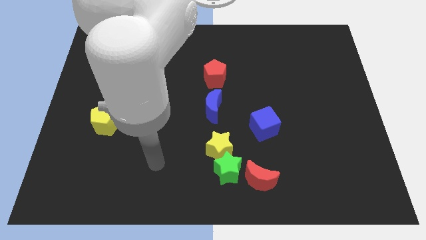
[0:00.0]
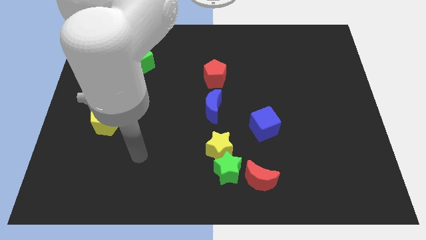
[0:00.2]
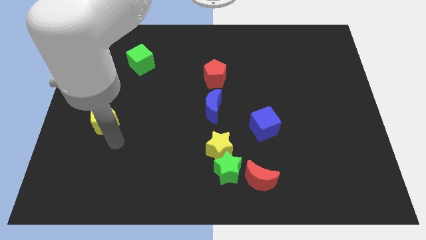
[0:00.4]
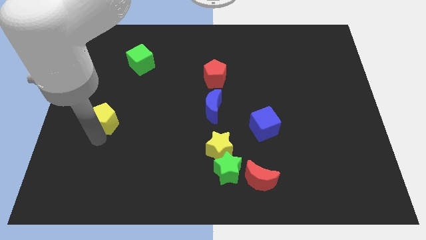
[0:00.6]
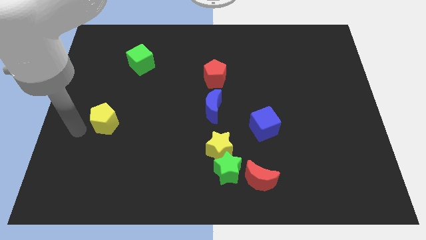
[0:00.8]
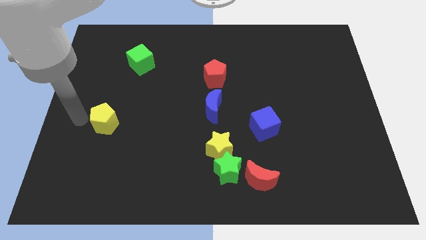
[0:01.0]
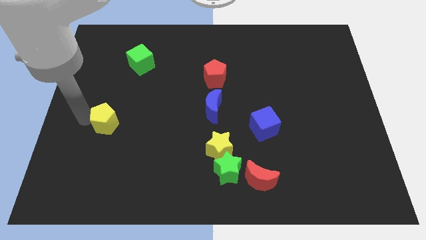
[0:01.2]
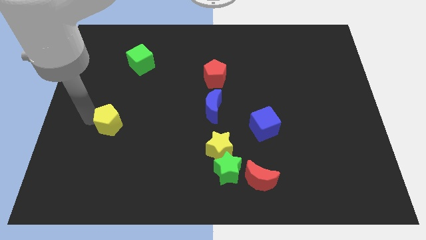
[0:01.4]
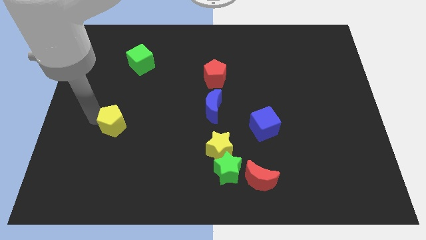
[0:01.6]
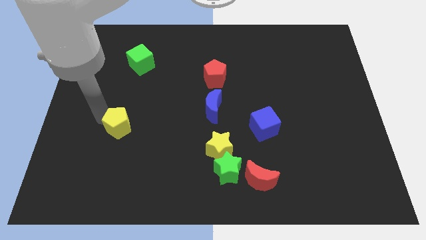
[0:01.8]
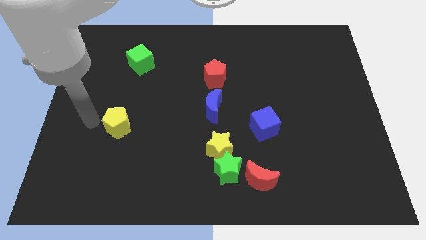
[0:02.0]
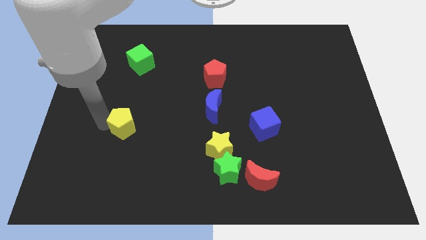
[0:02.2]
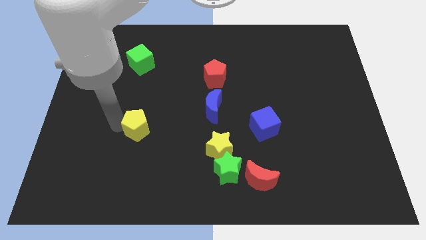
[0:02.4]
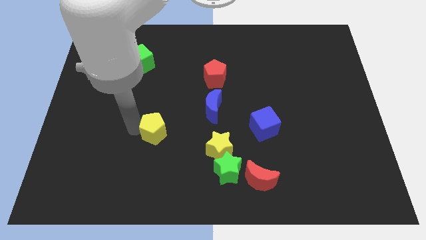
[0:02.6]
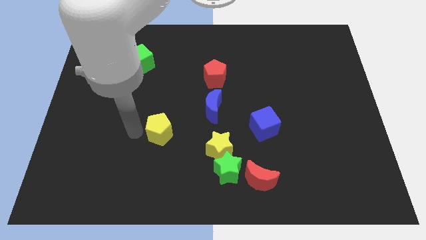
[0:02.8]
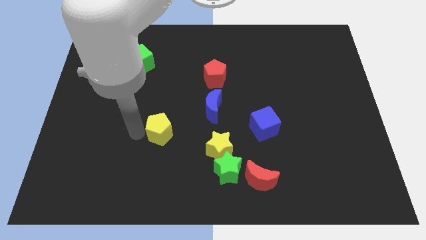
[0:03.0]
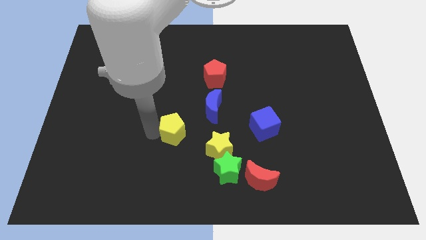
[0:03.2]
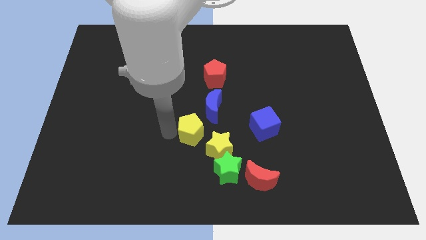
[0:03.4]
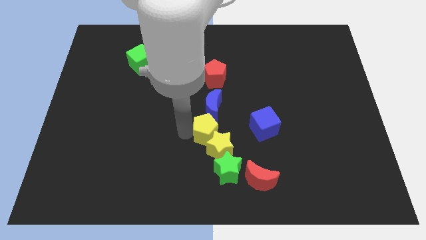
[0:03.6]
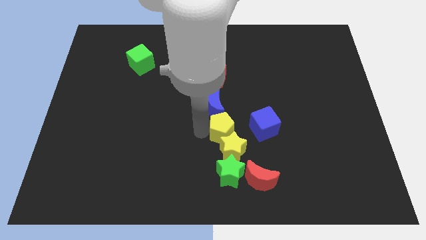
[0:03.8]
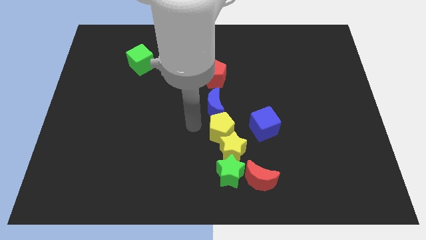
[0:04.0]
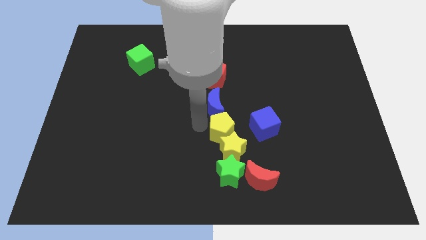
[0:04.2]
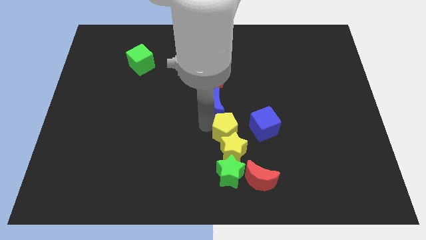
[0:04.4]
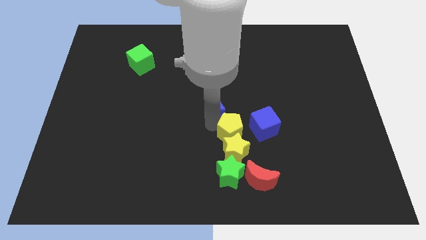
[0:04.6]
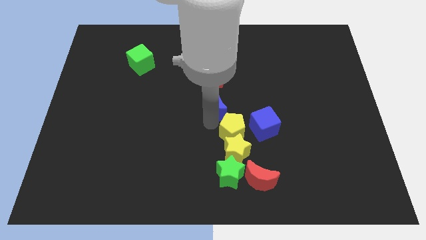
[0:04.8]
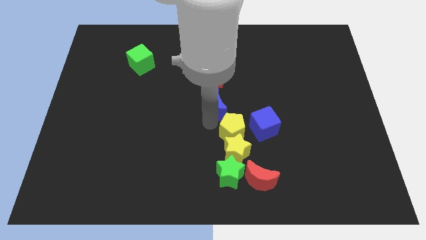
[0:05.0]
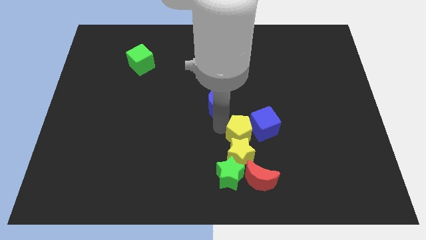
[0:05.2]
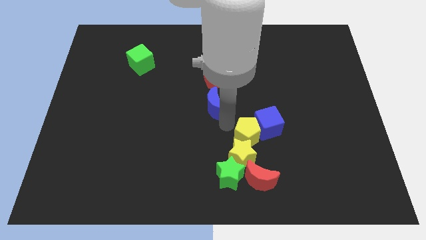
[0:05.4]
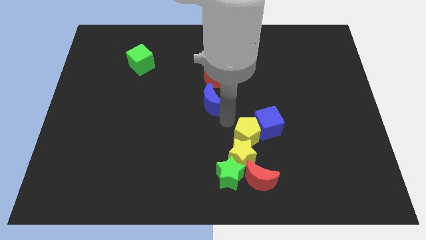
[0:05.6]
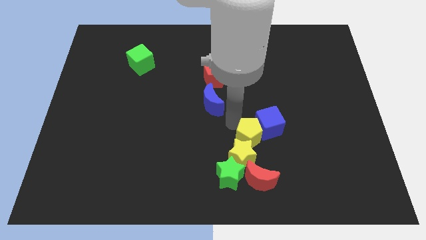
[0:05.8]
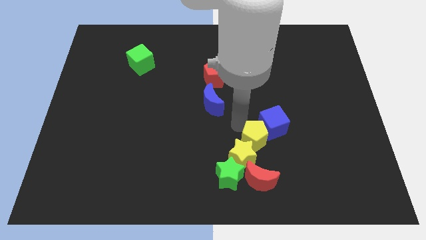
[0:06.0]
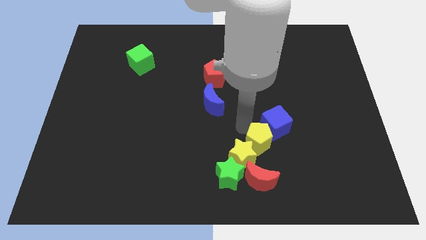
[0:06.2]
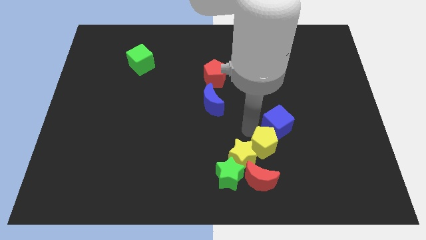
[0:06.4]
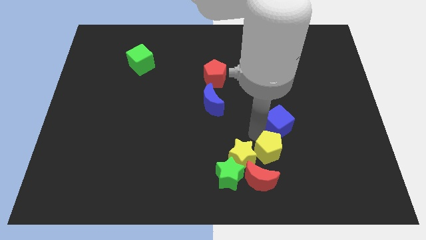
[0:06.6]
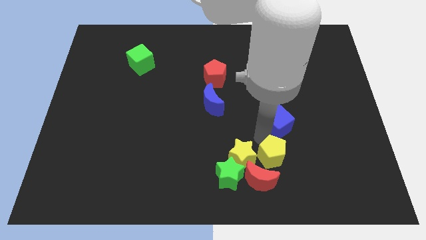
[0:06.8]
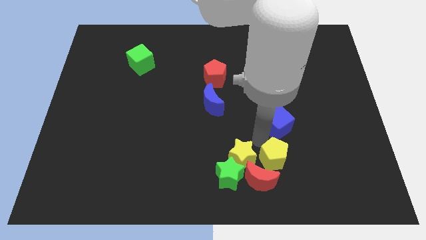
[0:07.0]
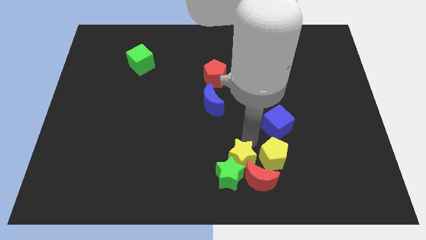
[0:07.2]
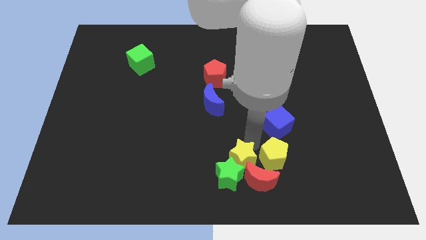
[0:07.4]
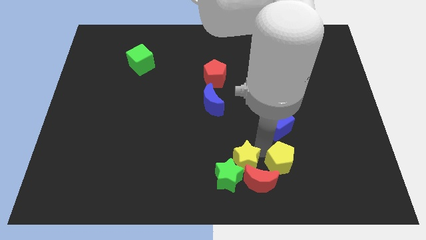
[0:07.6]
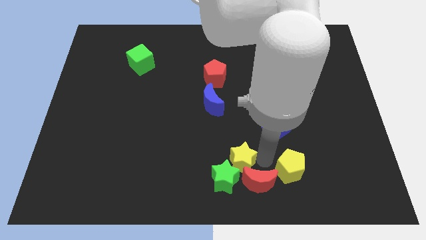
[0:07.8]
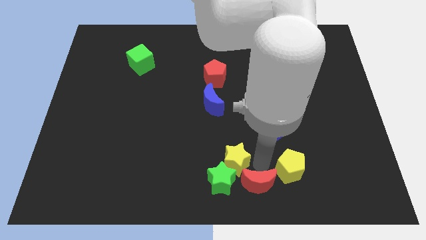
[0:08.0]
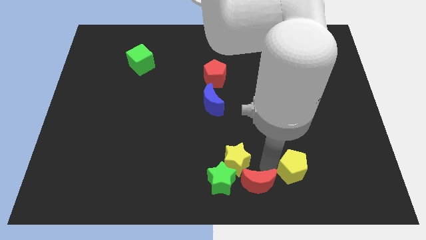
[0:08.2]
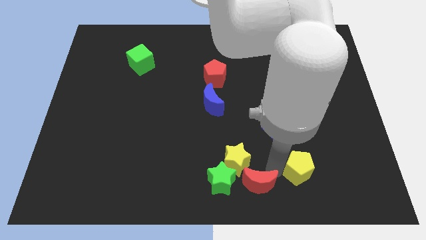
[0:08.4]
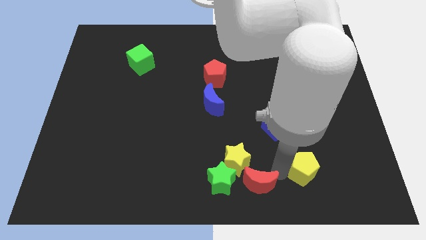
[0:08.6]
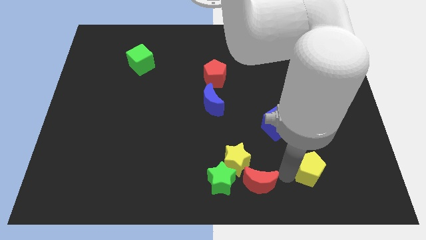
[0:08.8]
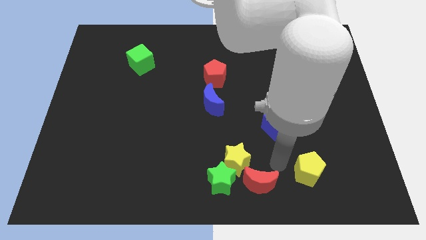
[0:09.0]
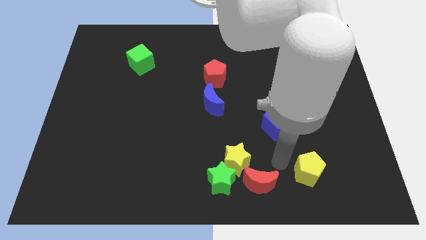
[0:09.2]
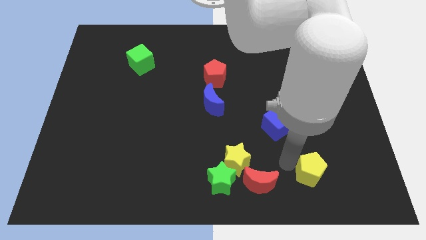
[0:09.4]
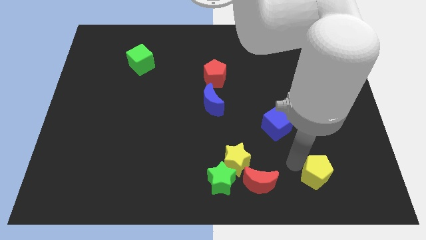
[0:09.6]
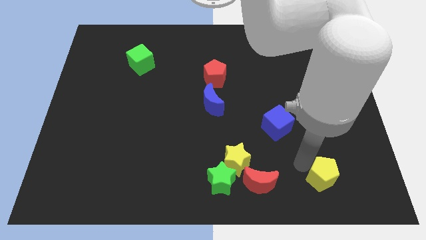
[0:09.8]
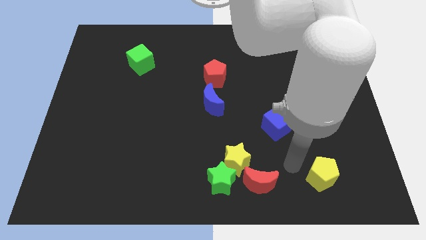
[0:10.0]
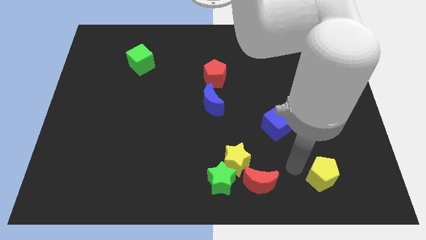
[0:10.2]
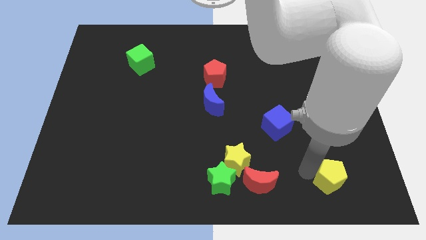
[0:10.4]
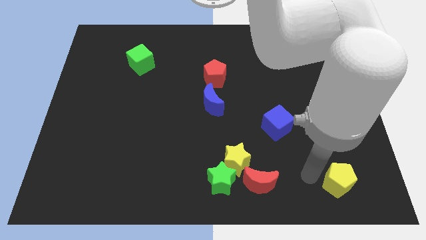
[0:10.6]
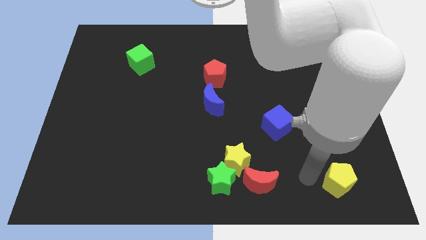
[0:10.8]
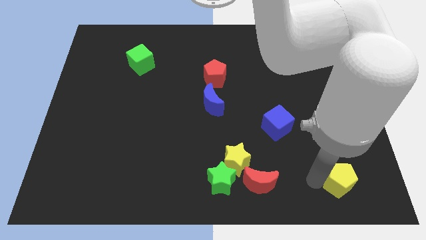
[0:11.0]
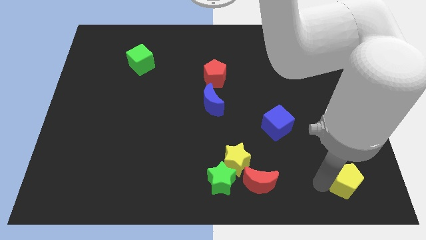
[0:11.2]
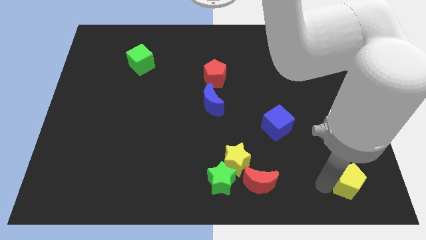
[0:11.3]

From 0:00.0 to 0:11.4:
move the yellow pentagon to the lower right corner

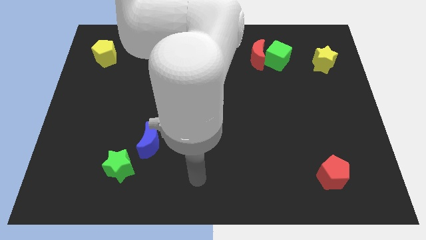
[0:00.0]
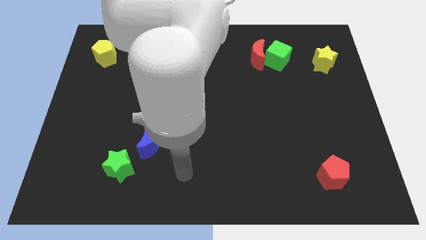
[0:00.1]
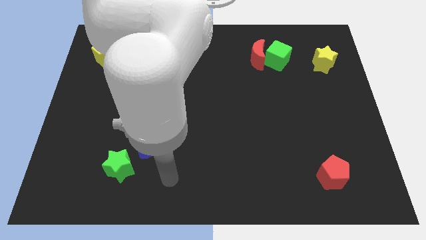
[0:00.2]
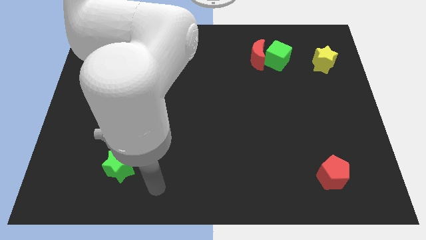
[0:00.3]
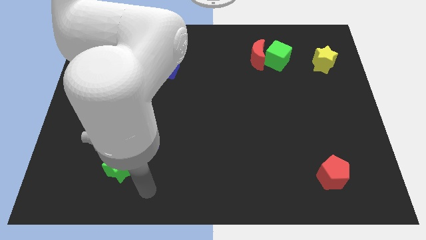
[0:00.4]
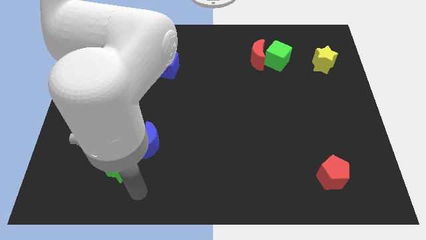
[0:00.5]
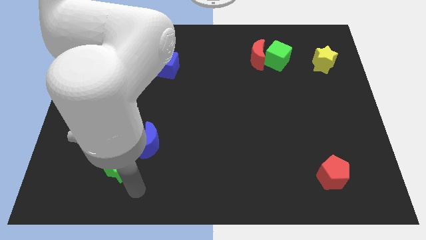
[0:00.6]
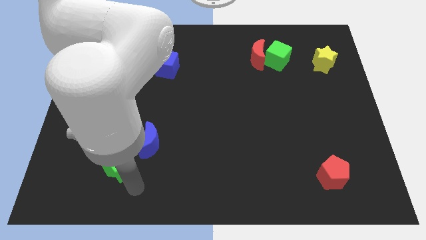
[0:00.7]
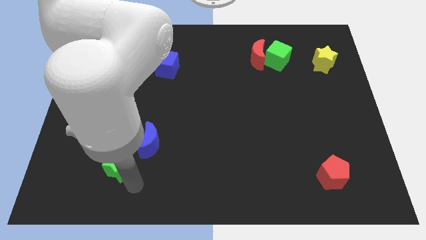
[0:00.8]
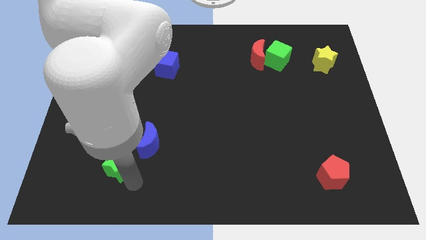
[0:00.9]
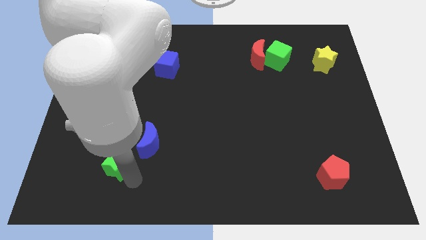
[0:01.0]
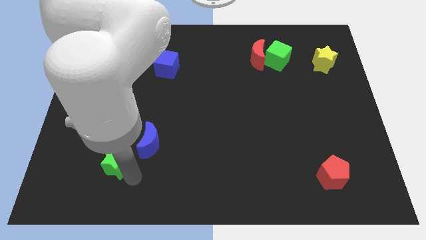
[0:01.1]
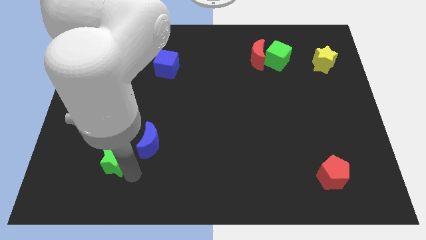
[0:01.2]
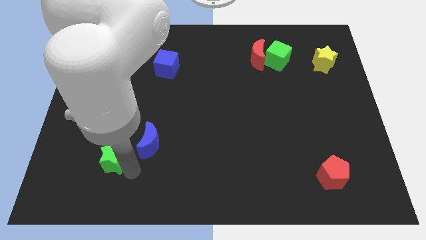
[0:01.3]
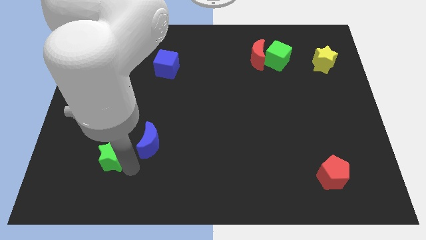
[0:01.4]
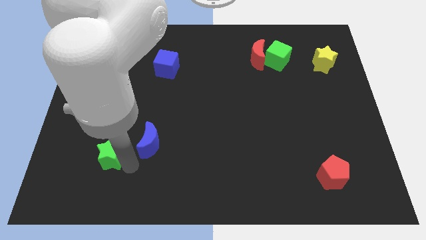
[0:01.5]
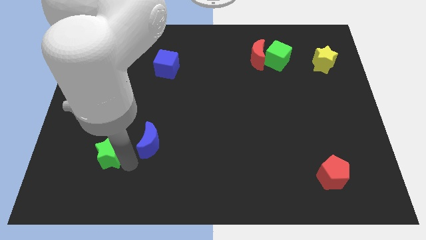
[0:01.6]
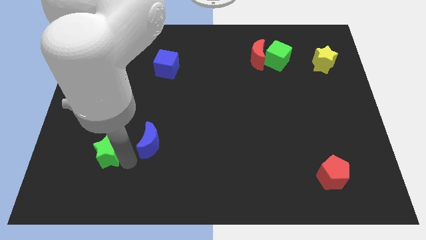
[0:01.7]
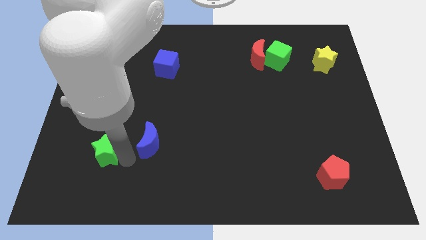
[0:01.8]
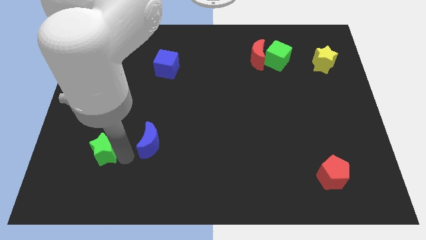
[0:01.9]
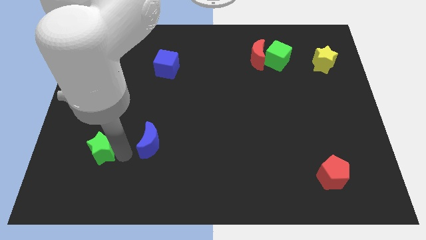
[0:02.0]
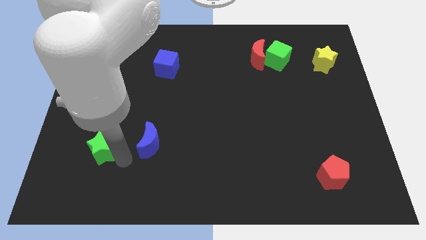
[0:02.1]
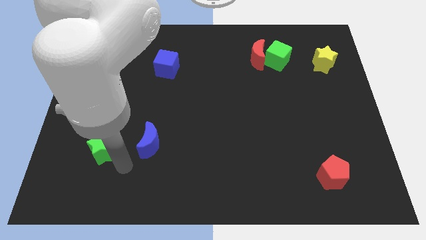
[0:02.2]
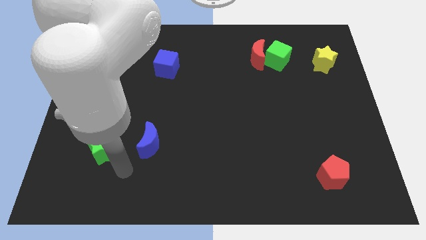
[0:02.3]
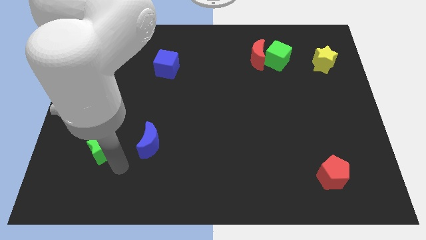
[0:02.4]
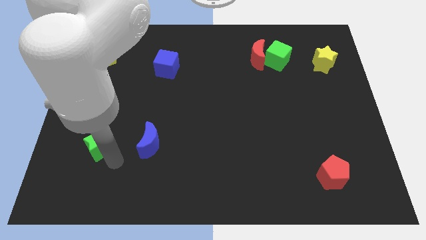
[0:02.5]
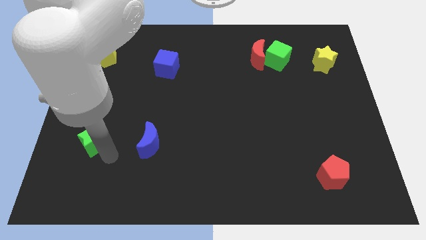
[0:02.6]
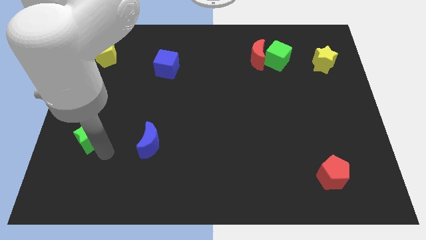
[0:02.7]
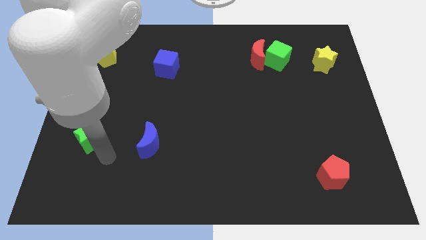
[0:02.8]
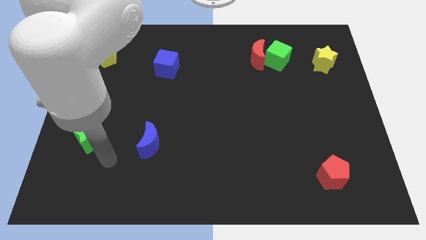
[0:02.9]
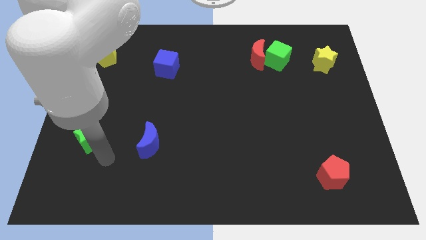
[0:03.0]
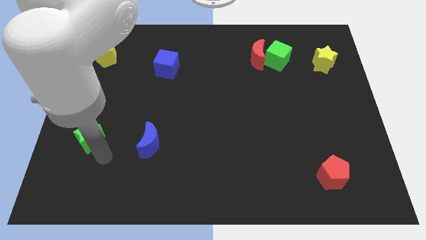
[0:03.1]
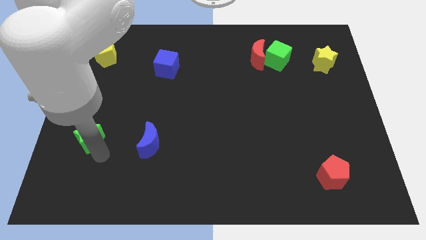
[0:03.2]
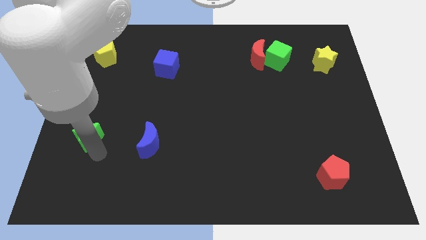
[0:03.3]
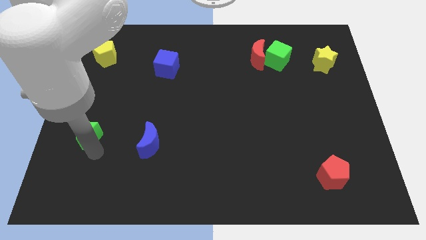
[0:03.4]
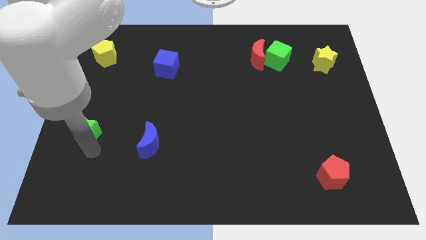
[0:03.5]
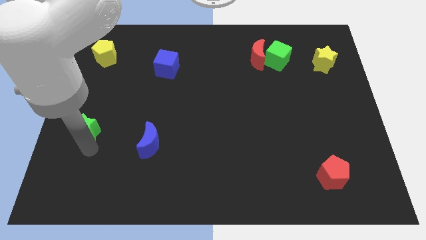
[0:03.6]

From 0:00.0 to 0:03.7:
push the green star to the center left
